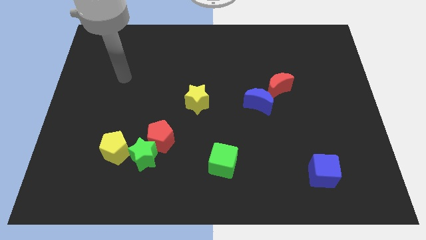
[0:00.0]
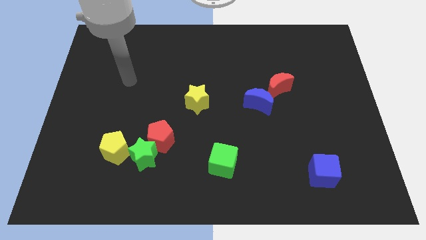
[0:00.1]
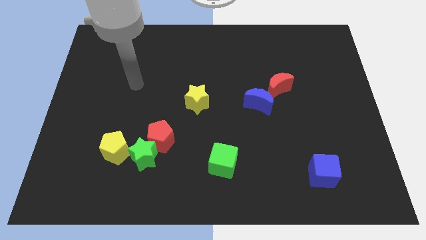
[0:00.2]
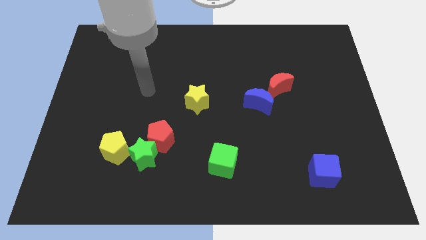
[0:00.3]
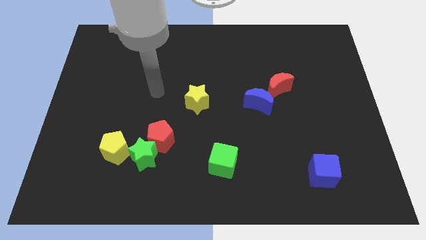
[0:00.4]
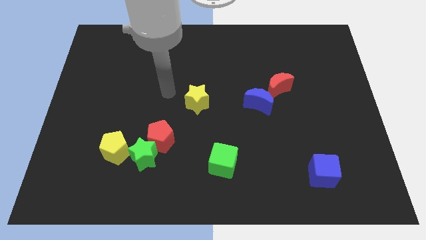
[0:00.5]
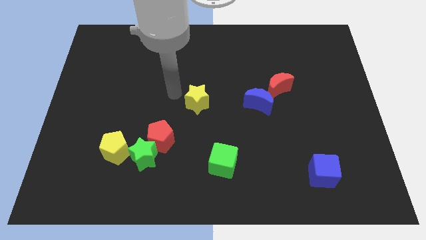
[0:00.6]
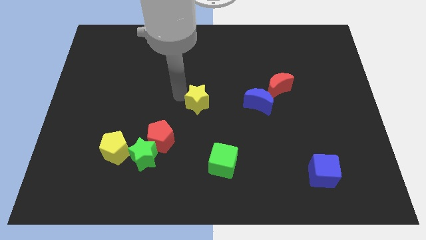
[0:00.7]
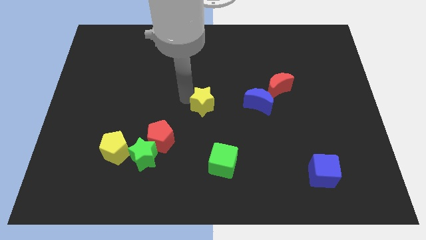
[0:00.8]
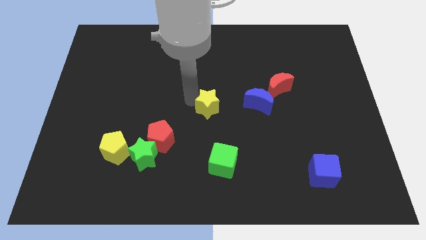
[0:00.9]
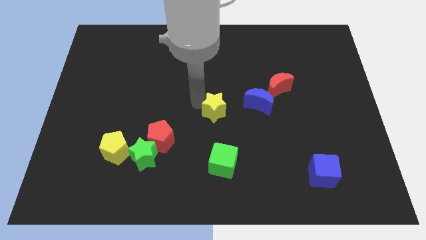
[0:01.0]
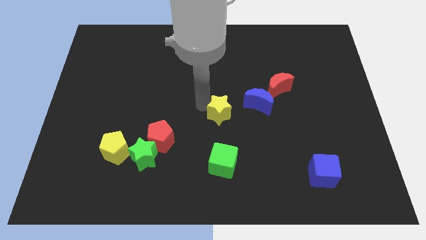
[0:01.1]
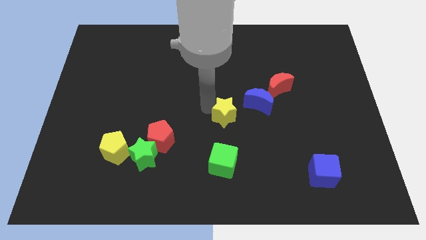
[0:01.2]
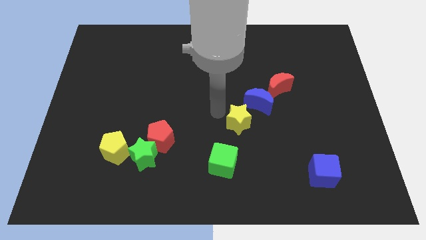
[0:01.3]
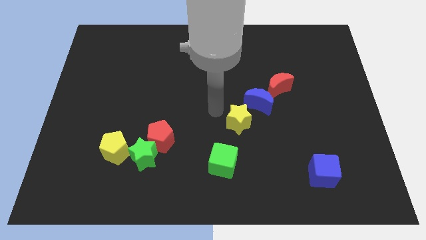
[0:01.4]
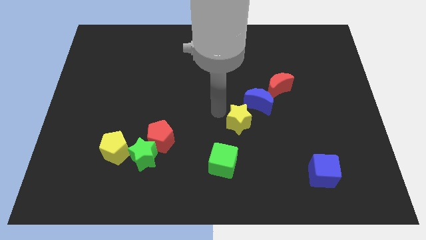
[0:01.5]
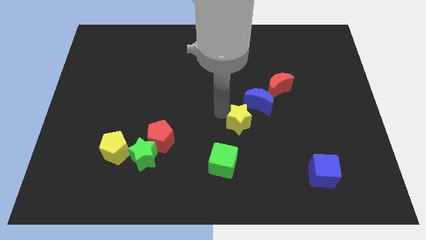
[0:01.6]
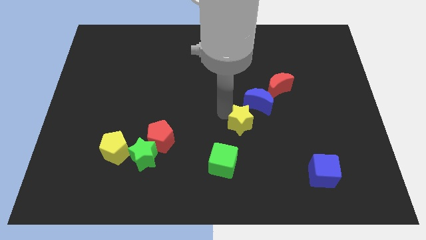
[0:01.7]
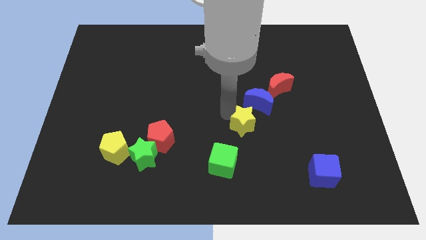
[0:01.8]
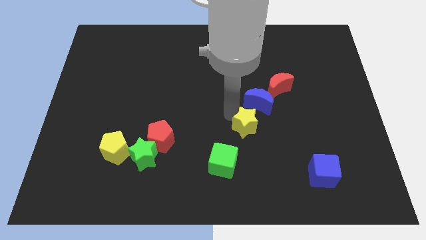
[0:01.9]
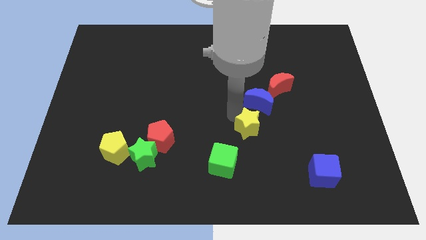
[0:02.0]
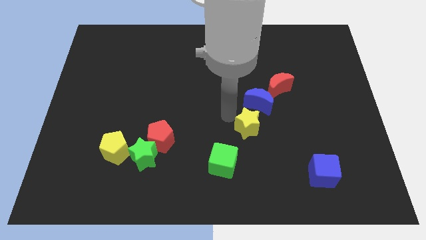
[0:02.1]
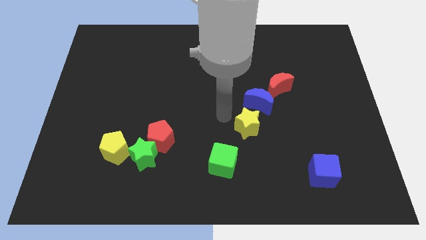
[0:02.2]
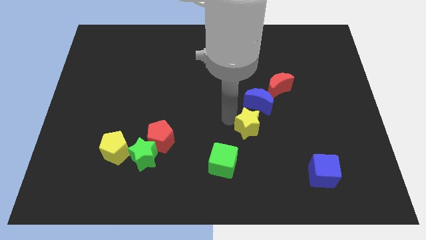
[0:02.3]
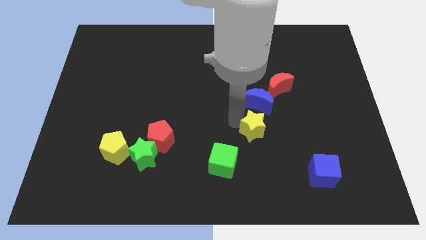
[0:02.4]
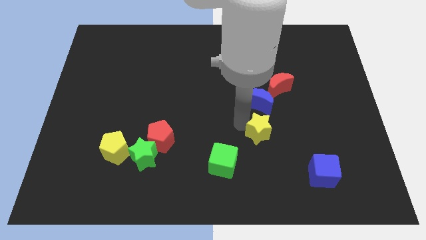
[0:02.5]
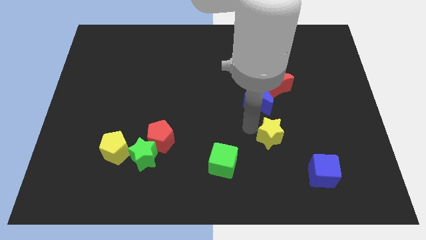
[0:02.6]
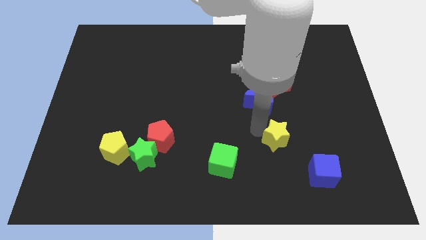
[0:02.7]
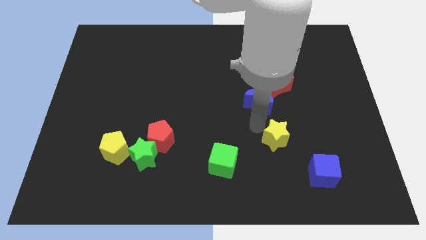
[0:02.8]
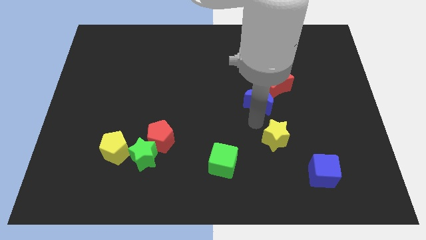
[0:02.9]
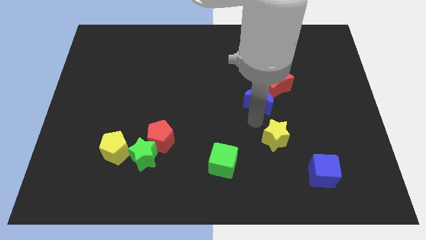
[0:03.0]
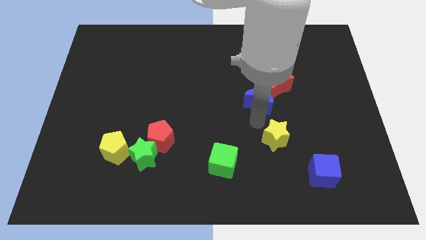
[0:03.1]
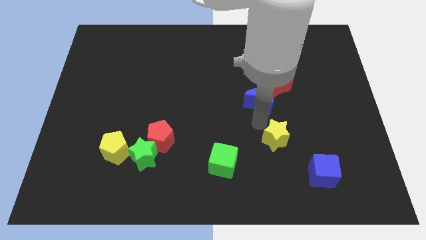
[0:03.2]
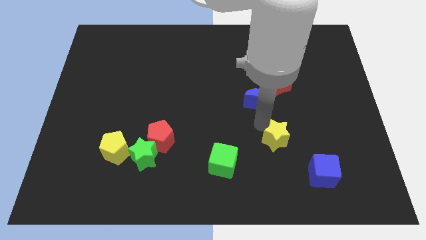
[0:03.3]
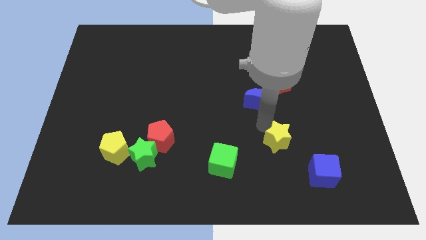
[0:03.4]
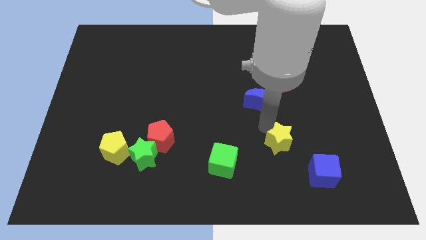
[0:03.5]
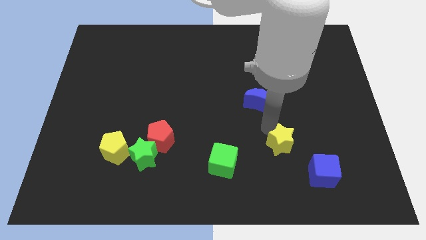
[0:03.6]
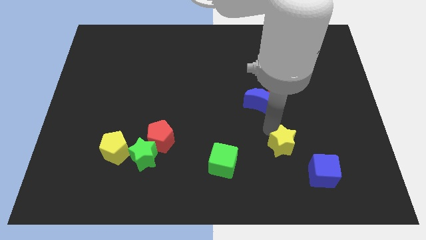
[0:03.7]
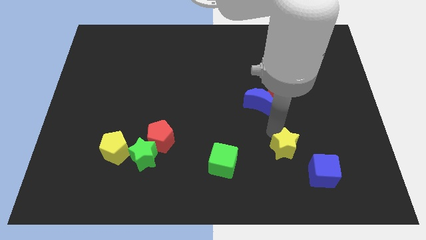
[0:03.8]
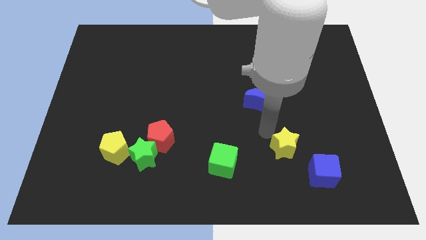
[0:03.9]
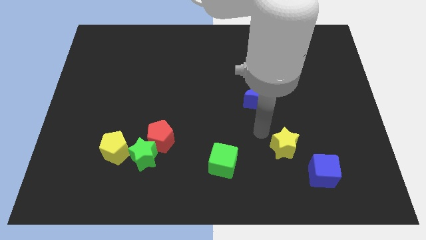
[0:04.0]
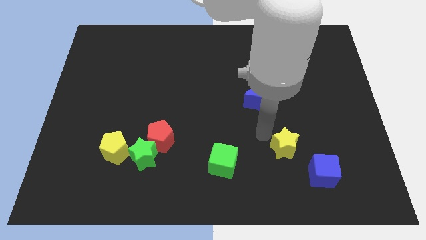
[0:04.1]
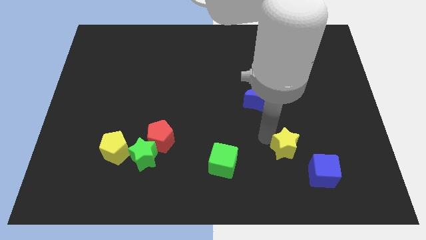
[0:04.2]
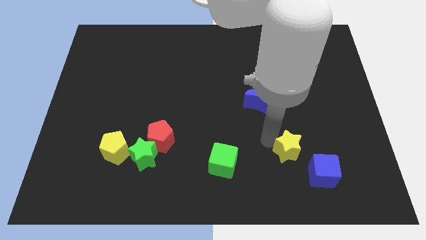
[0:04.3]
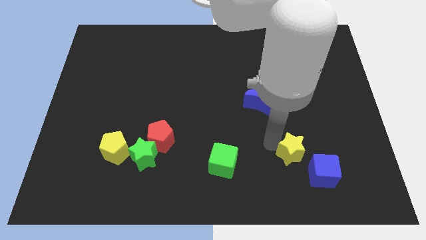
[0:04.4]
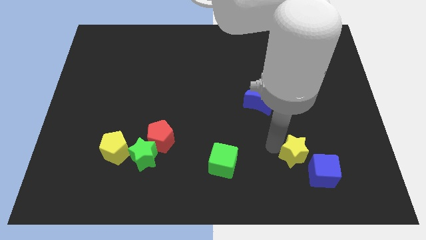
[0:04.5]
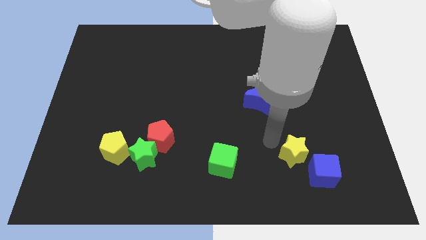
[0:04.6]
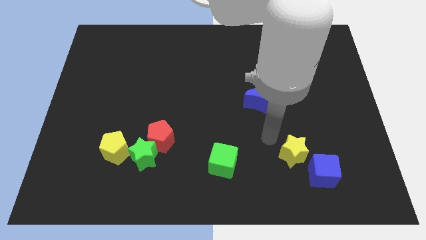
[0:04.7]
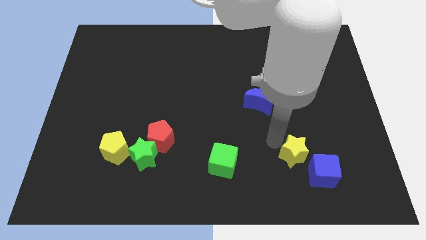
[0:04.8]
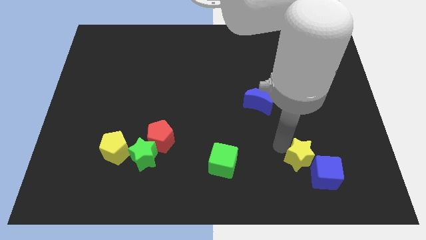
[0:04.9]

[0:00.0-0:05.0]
push the yellow star towards the blue cube

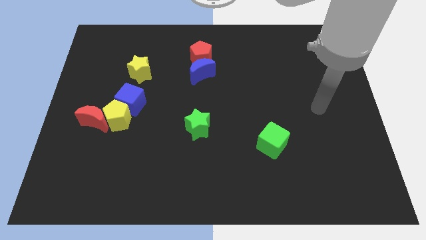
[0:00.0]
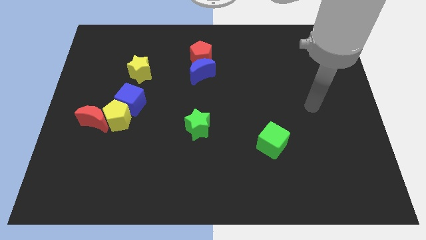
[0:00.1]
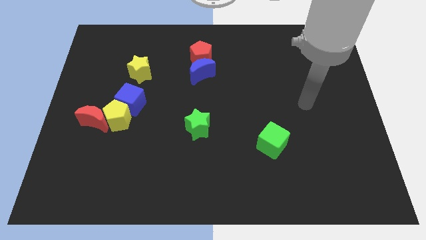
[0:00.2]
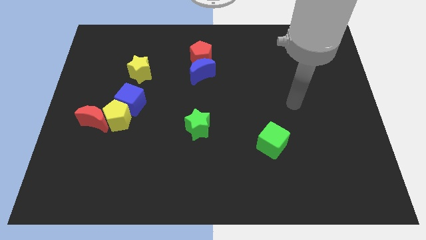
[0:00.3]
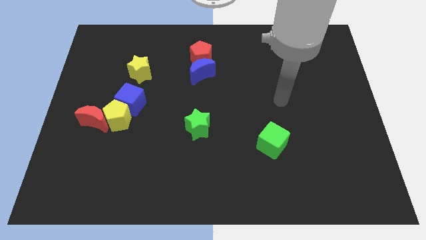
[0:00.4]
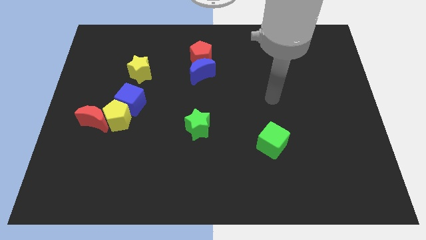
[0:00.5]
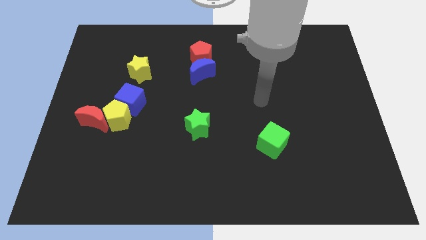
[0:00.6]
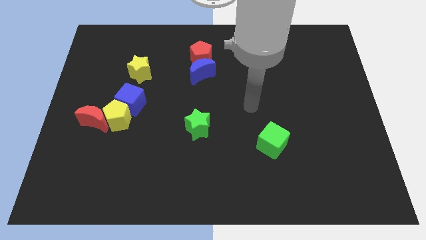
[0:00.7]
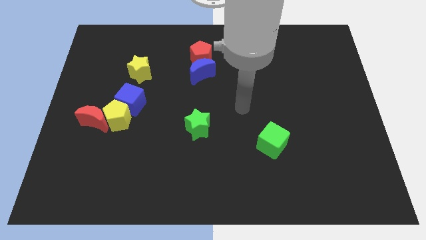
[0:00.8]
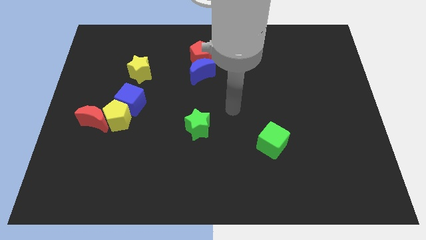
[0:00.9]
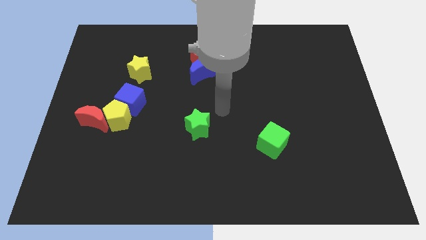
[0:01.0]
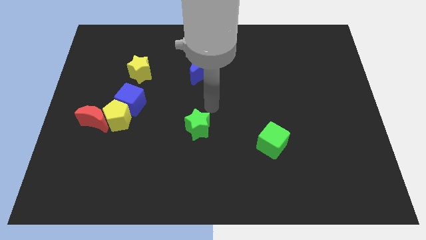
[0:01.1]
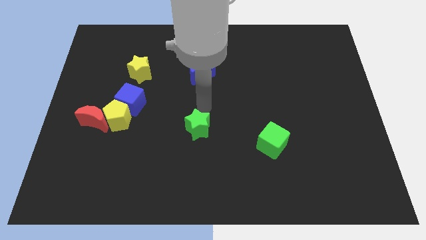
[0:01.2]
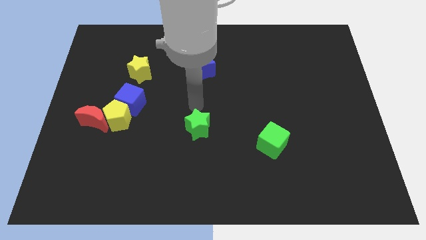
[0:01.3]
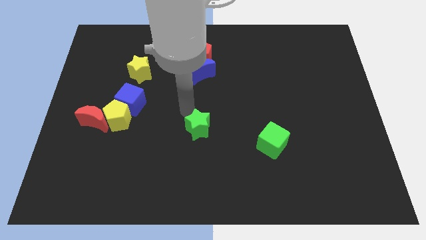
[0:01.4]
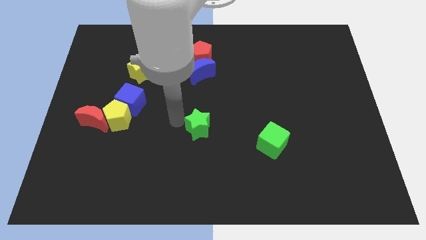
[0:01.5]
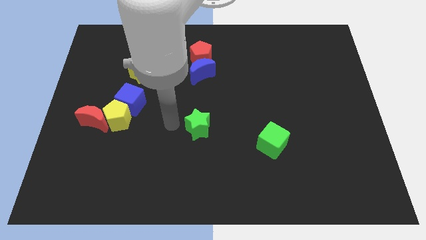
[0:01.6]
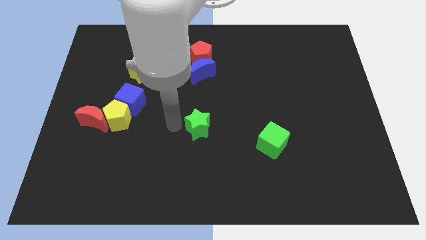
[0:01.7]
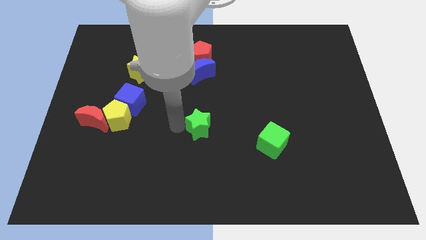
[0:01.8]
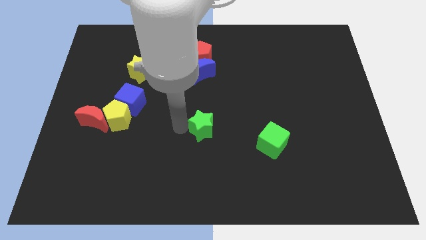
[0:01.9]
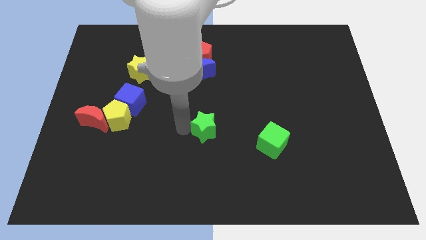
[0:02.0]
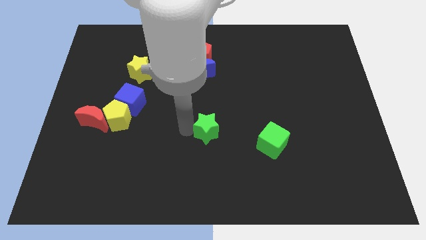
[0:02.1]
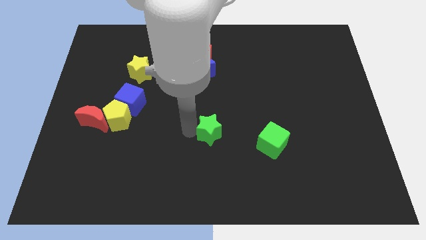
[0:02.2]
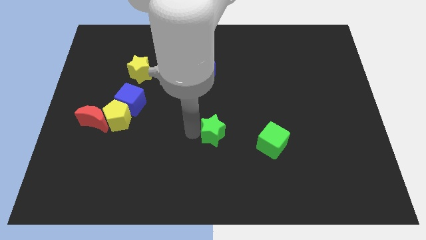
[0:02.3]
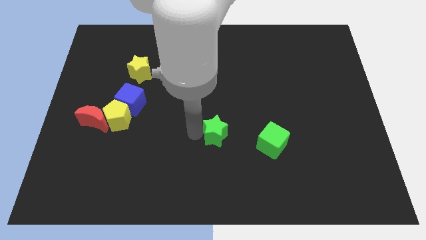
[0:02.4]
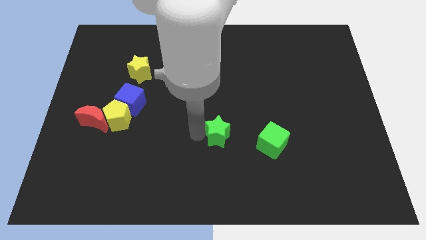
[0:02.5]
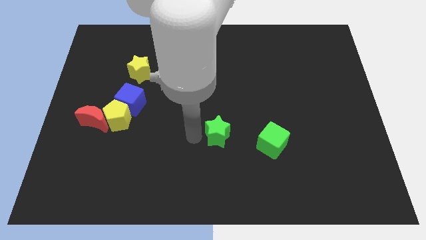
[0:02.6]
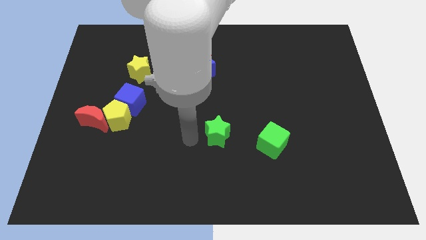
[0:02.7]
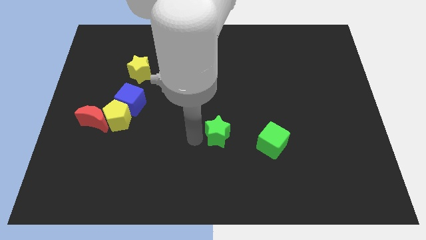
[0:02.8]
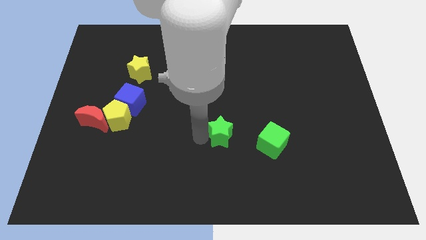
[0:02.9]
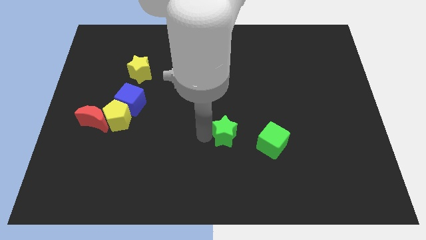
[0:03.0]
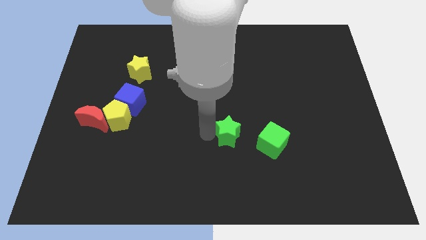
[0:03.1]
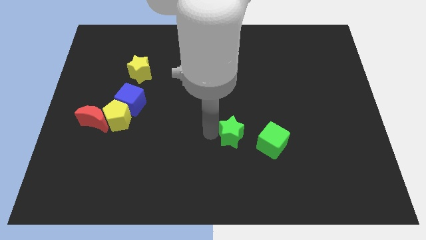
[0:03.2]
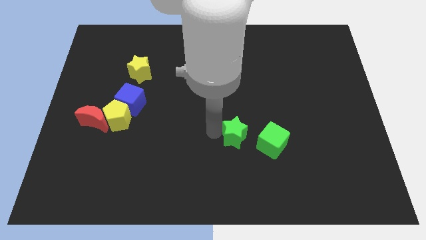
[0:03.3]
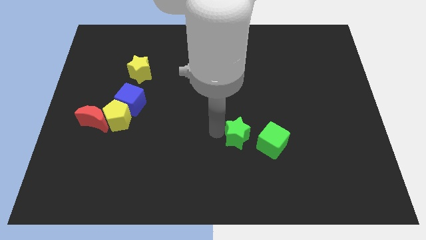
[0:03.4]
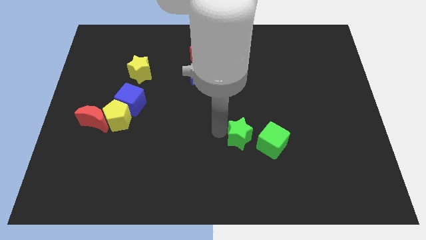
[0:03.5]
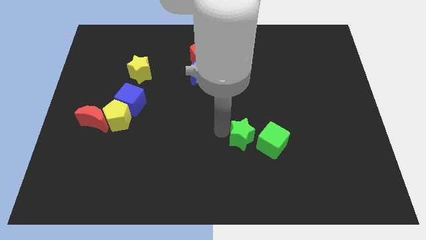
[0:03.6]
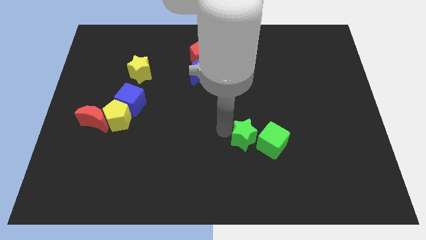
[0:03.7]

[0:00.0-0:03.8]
move the green star to the green cube
